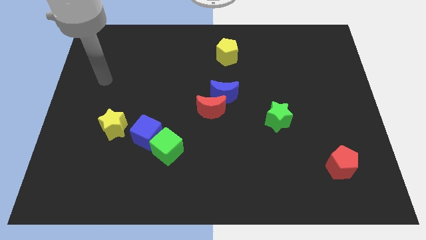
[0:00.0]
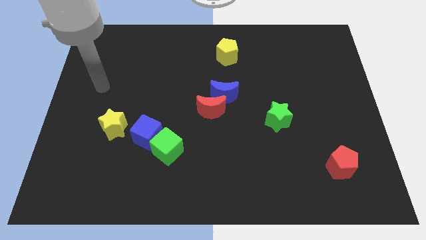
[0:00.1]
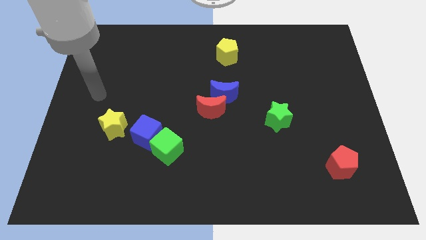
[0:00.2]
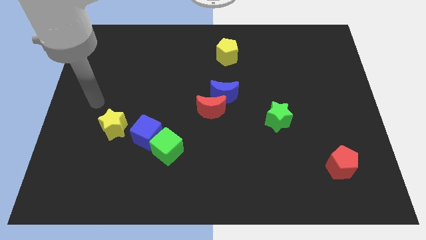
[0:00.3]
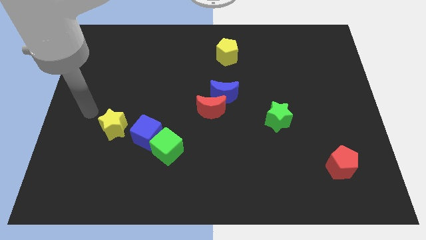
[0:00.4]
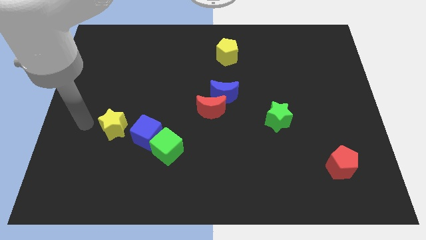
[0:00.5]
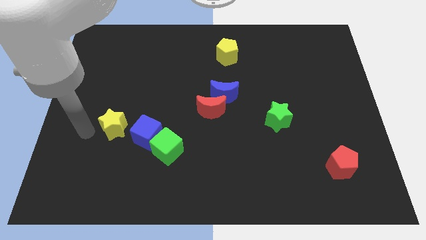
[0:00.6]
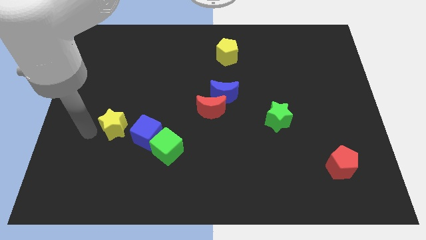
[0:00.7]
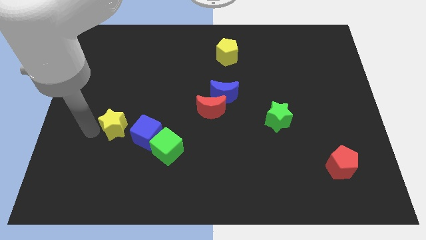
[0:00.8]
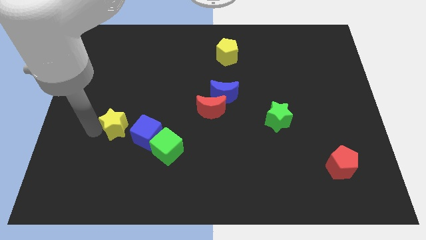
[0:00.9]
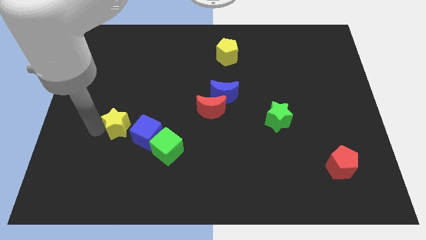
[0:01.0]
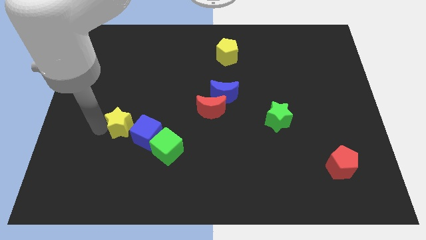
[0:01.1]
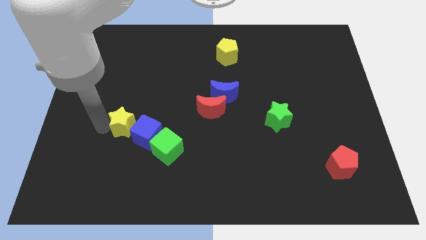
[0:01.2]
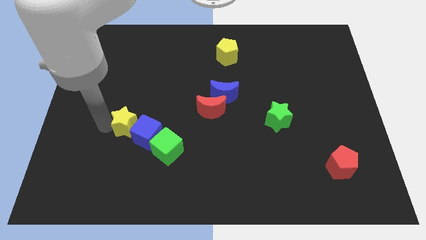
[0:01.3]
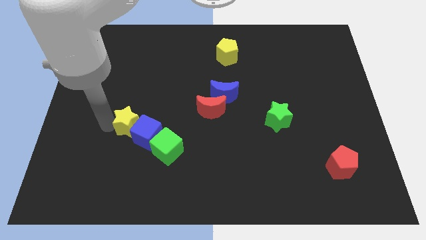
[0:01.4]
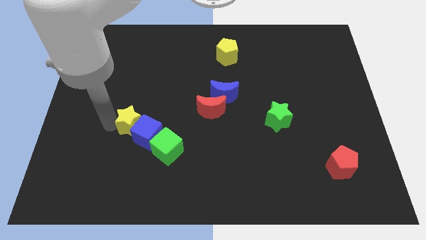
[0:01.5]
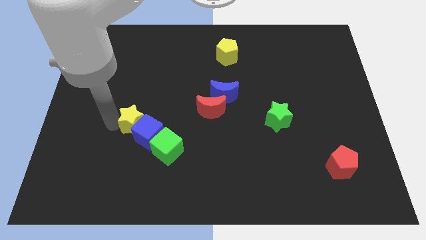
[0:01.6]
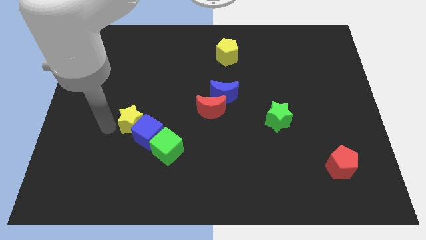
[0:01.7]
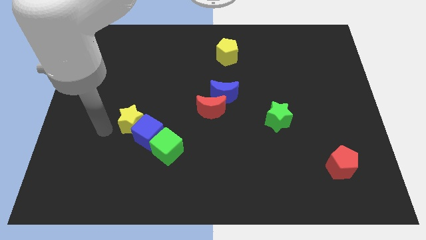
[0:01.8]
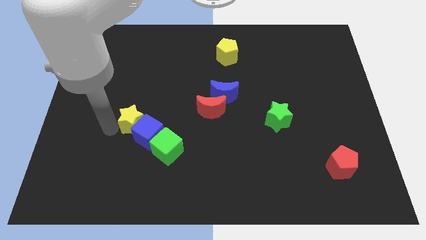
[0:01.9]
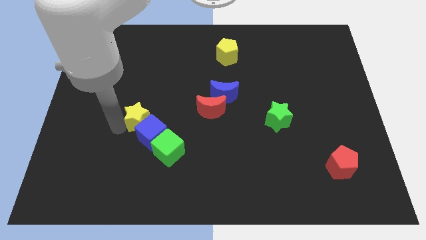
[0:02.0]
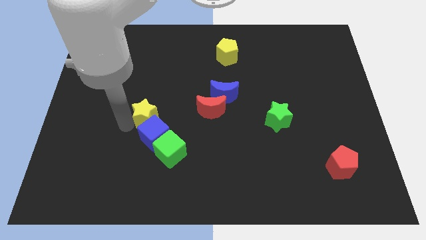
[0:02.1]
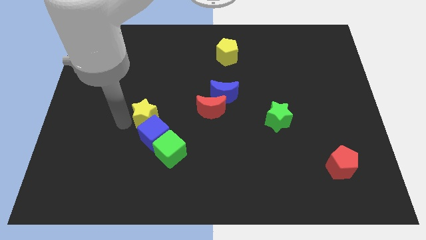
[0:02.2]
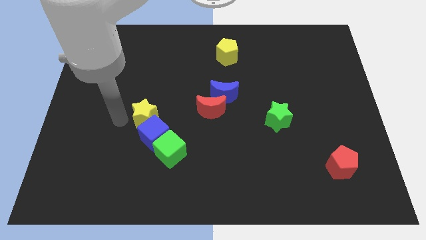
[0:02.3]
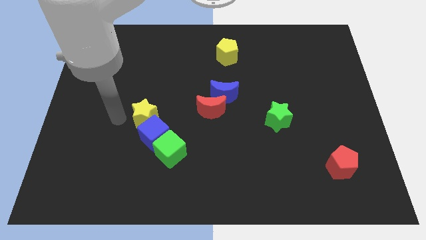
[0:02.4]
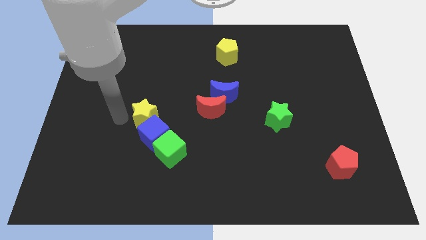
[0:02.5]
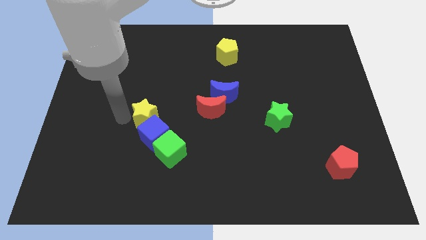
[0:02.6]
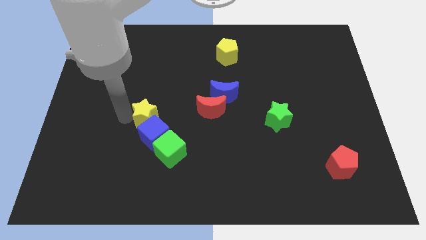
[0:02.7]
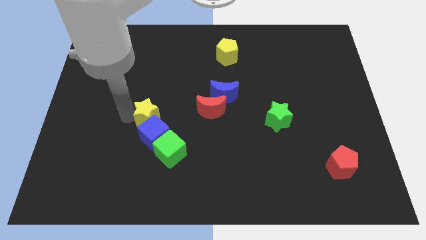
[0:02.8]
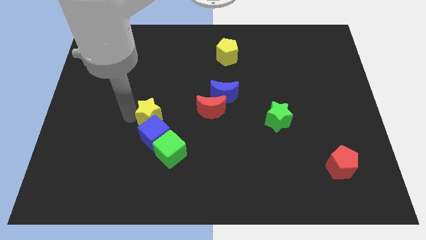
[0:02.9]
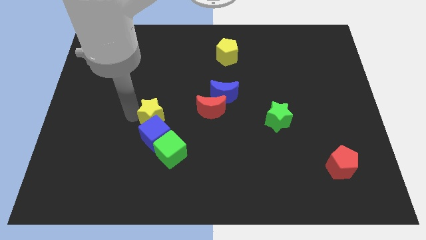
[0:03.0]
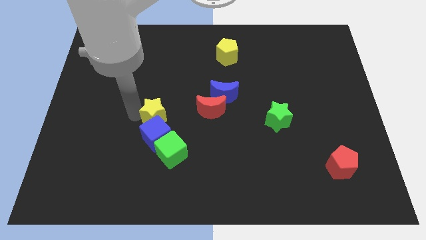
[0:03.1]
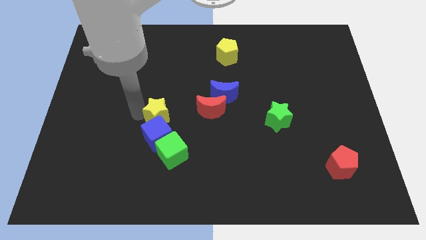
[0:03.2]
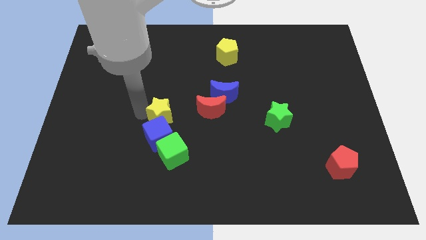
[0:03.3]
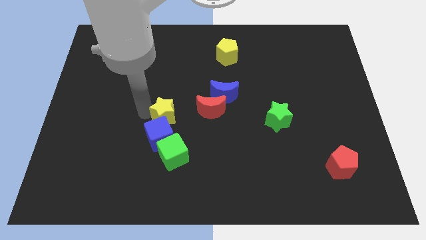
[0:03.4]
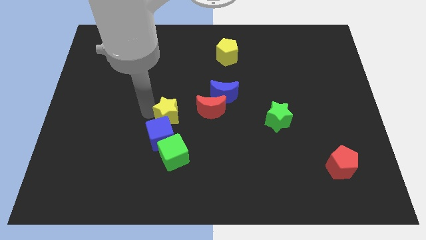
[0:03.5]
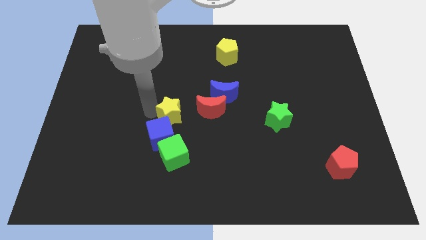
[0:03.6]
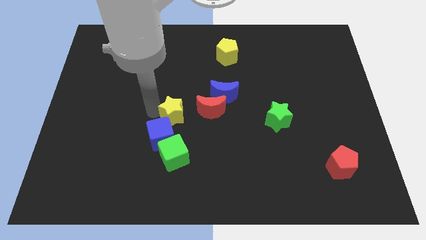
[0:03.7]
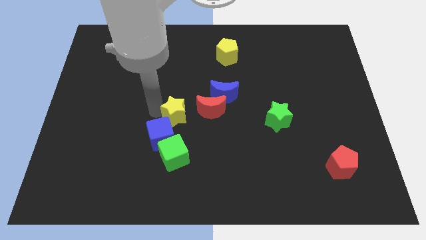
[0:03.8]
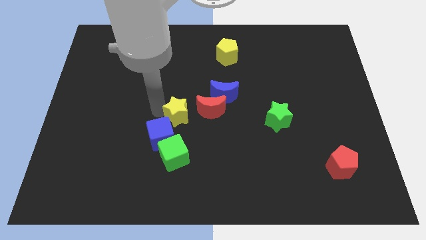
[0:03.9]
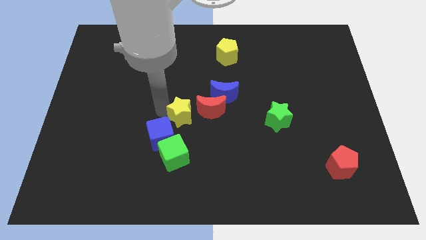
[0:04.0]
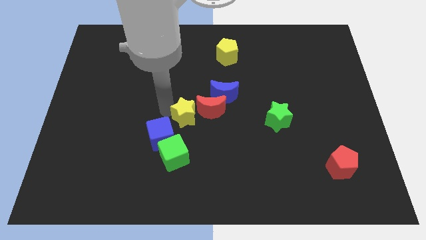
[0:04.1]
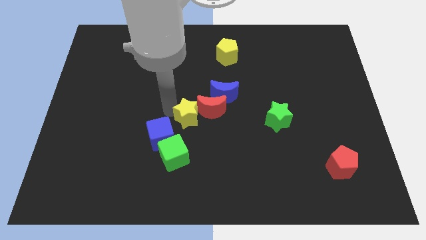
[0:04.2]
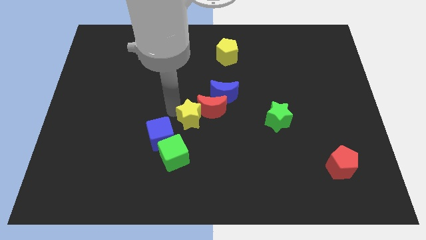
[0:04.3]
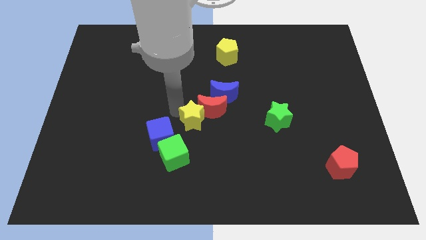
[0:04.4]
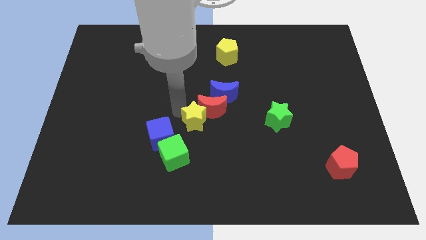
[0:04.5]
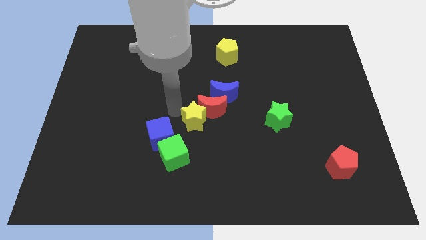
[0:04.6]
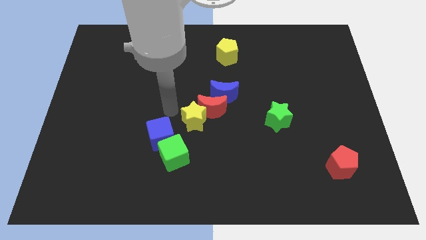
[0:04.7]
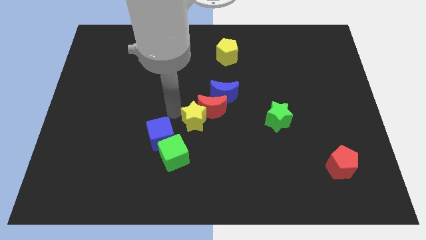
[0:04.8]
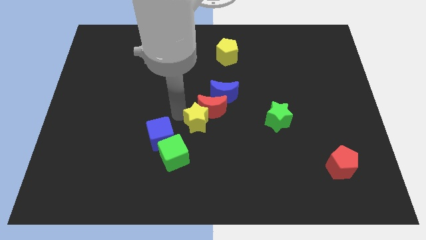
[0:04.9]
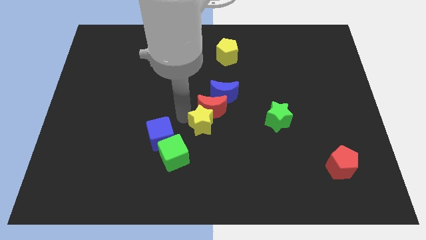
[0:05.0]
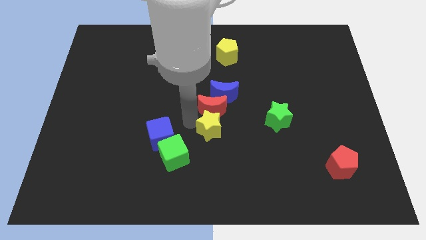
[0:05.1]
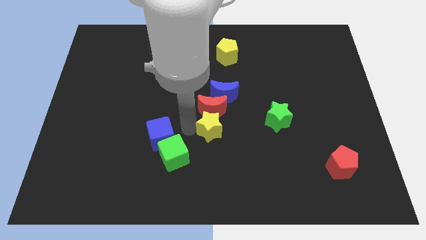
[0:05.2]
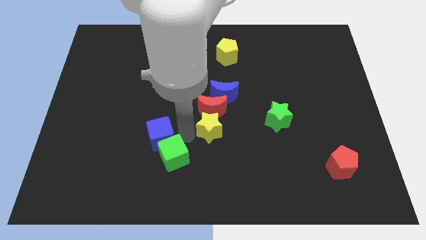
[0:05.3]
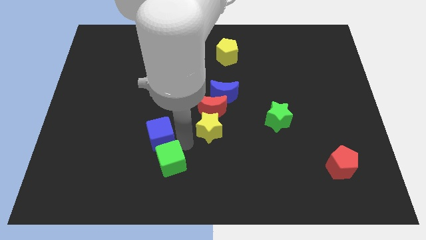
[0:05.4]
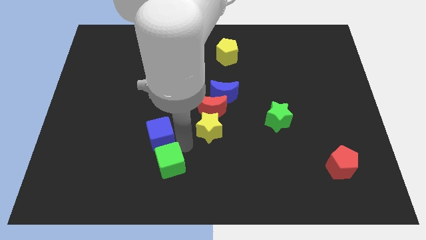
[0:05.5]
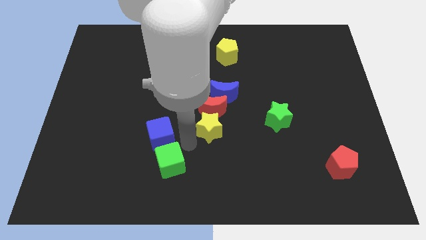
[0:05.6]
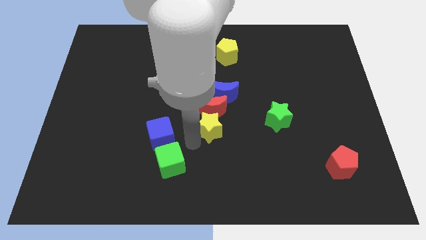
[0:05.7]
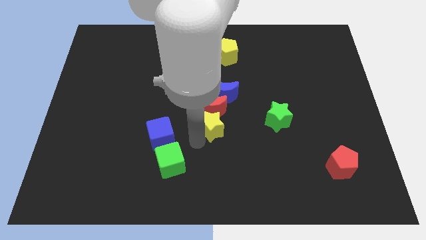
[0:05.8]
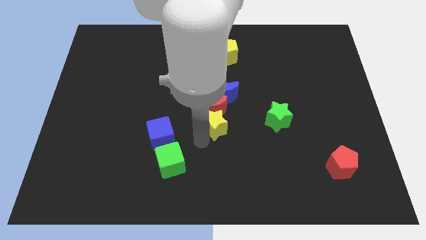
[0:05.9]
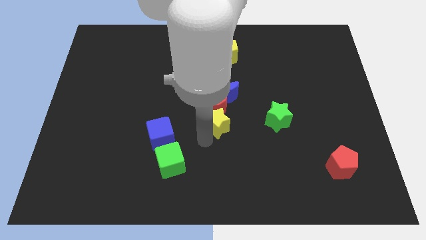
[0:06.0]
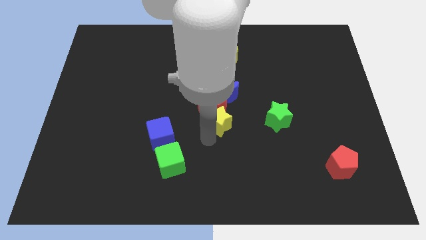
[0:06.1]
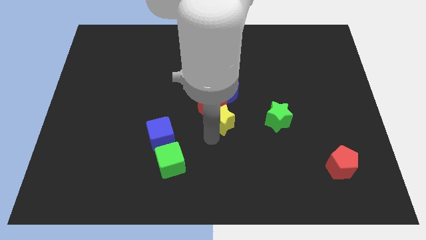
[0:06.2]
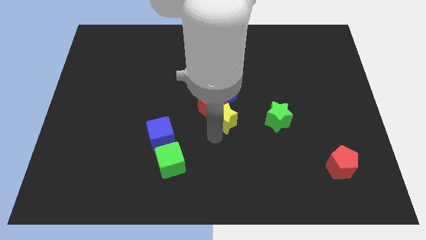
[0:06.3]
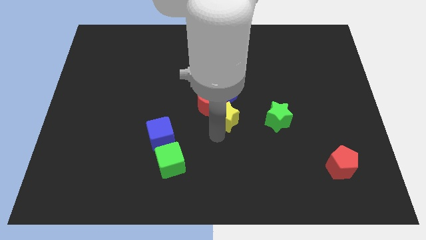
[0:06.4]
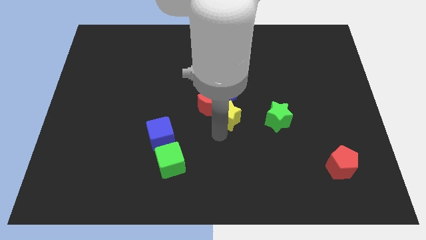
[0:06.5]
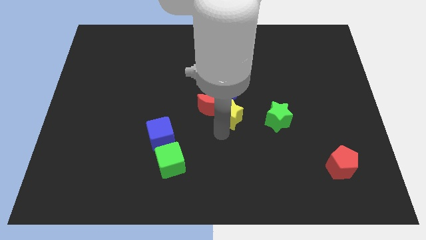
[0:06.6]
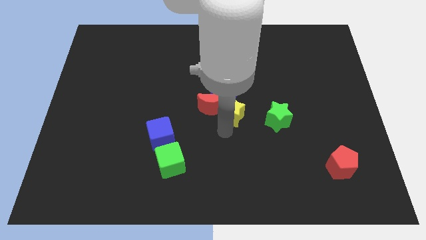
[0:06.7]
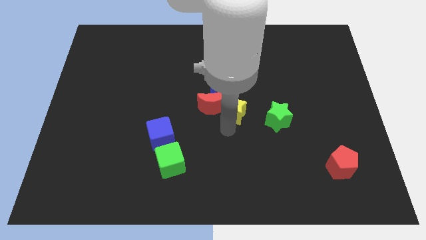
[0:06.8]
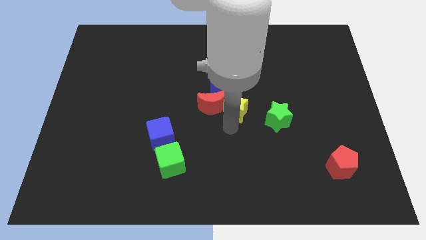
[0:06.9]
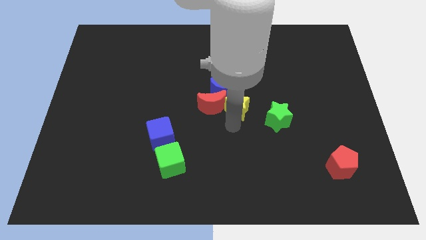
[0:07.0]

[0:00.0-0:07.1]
push the yellow star to the top left side of the green star

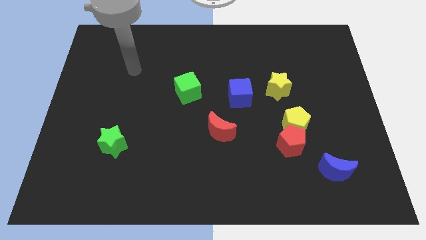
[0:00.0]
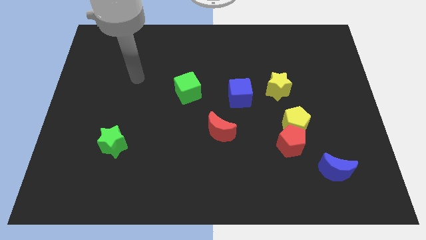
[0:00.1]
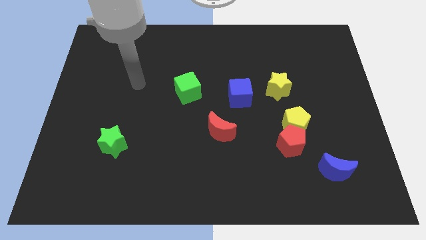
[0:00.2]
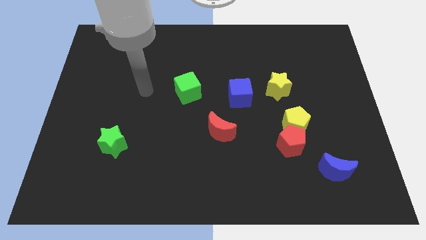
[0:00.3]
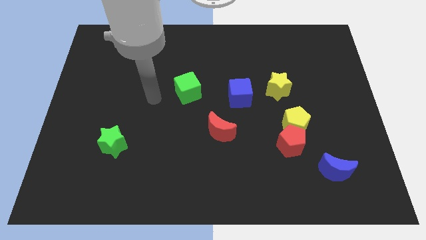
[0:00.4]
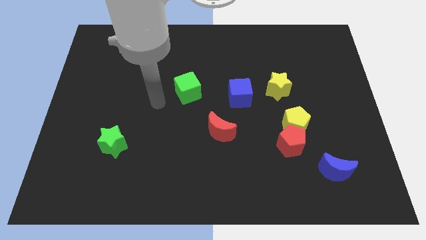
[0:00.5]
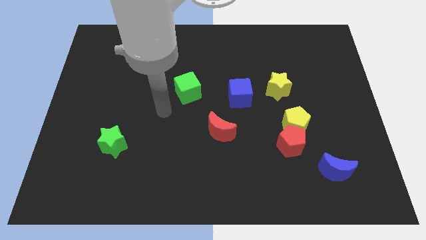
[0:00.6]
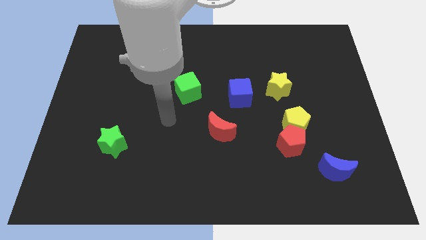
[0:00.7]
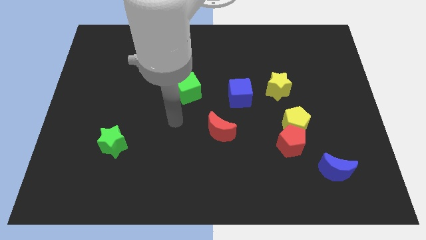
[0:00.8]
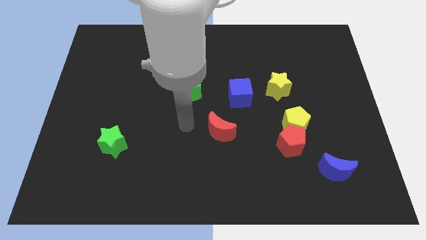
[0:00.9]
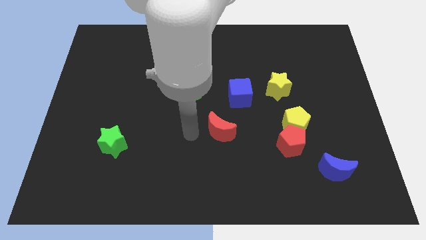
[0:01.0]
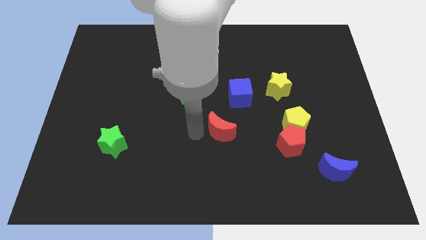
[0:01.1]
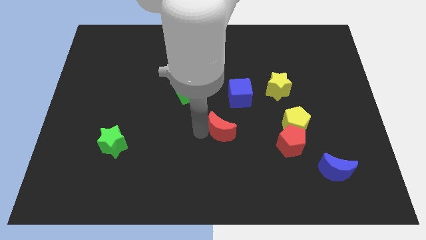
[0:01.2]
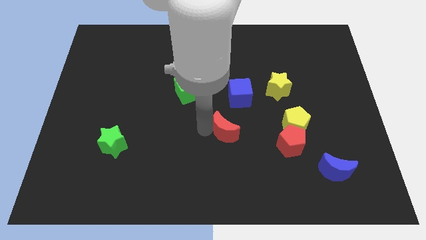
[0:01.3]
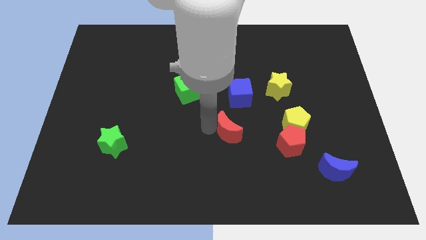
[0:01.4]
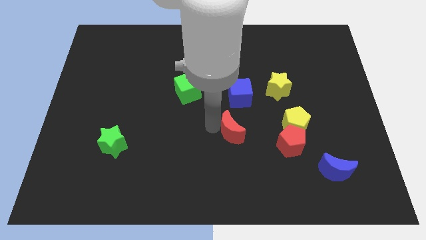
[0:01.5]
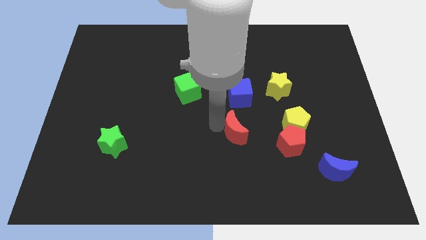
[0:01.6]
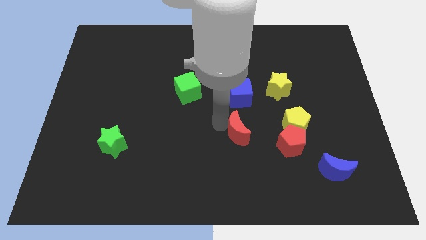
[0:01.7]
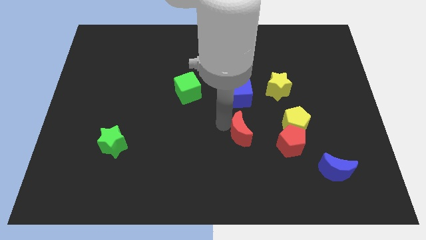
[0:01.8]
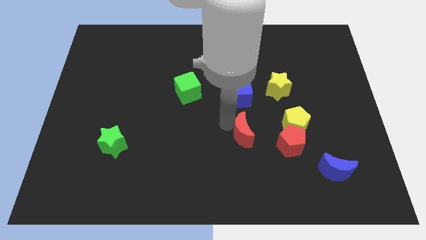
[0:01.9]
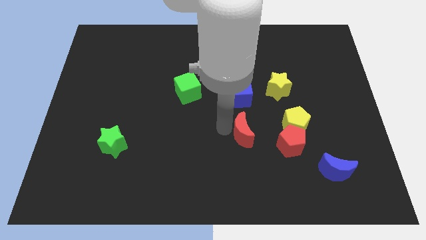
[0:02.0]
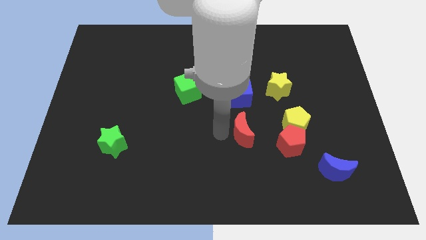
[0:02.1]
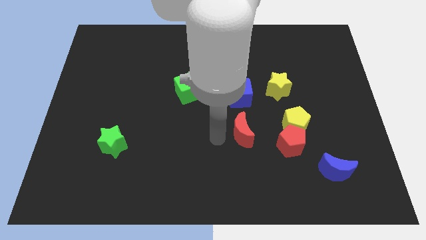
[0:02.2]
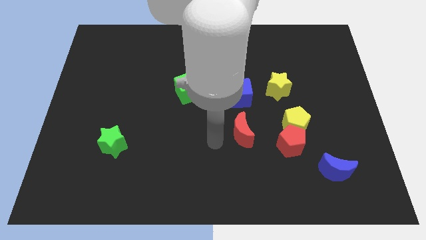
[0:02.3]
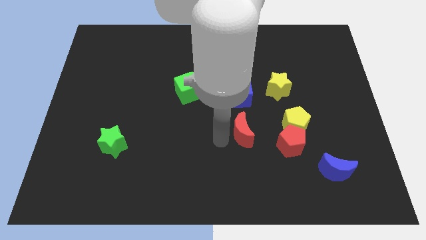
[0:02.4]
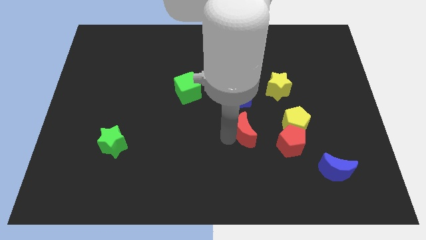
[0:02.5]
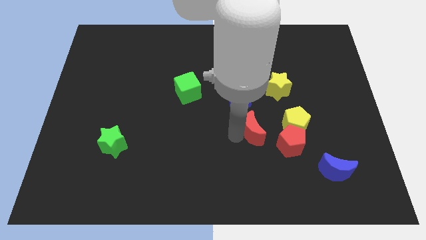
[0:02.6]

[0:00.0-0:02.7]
move the red moon to the top left side of the red pentagon
